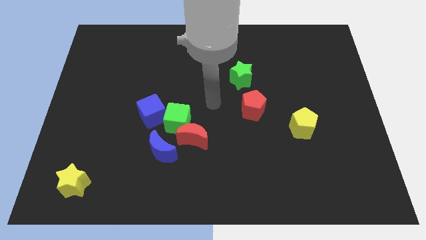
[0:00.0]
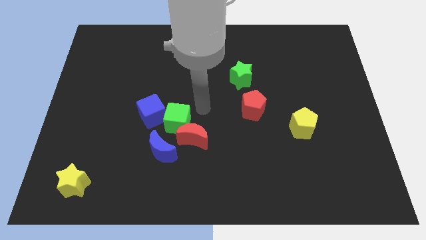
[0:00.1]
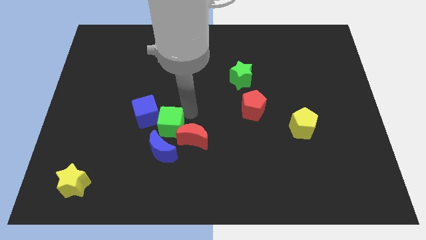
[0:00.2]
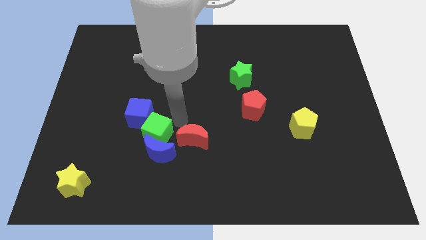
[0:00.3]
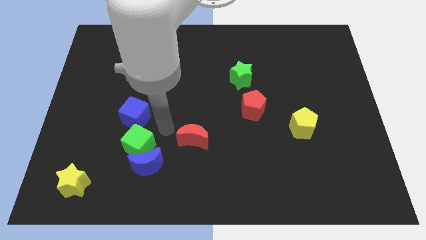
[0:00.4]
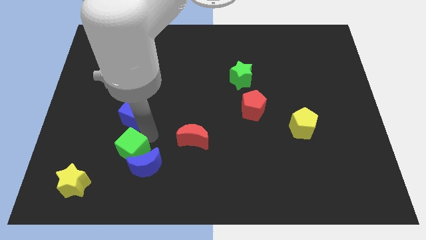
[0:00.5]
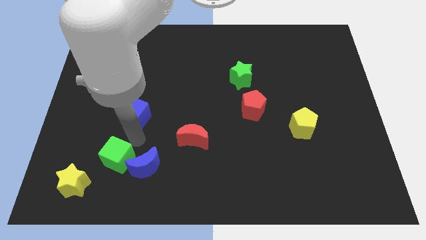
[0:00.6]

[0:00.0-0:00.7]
separate the blue cube from the green cube

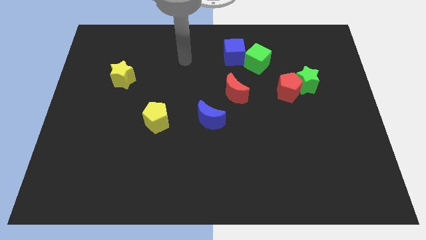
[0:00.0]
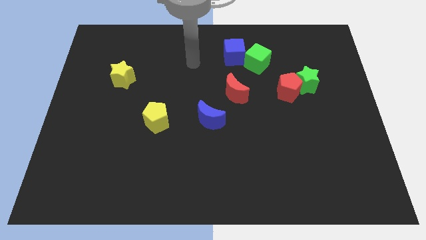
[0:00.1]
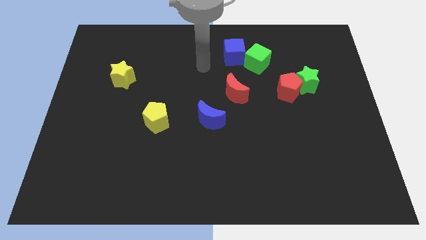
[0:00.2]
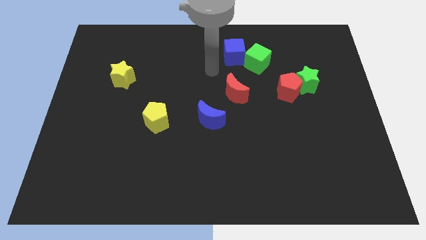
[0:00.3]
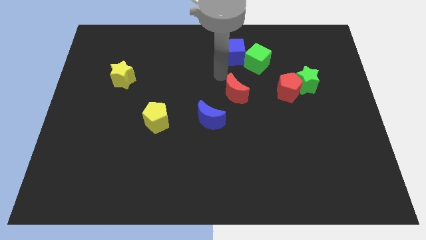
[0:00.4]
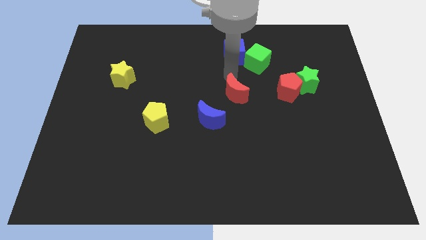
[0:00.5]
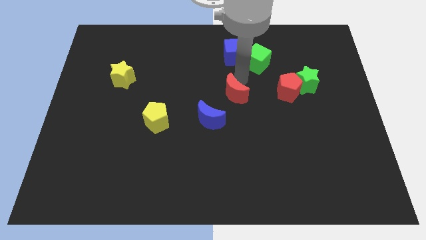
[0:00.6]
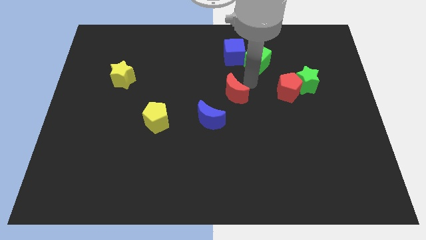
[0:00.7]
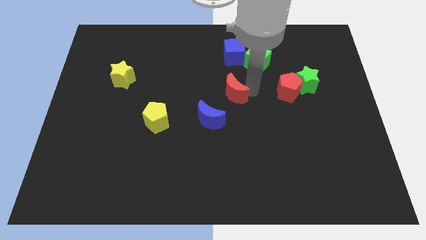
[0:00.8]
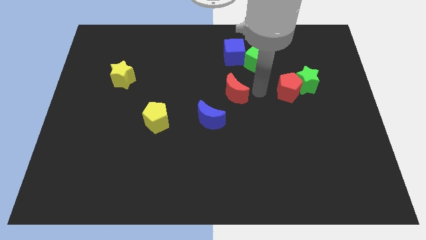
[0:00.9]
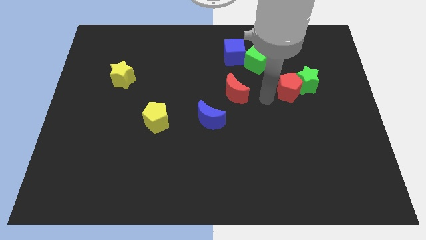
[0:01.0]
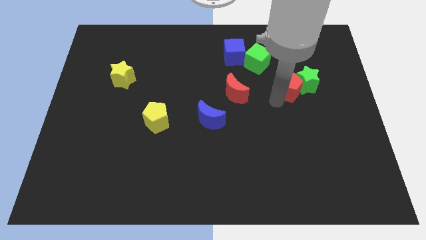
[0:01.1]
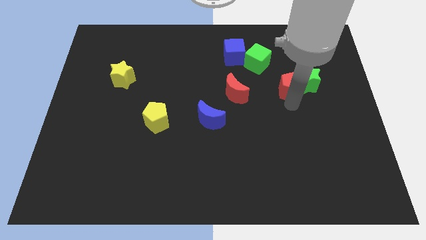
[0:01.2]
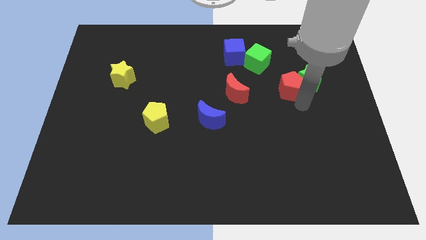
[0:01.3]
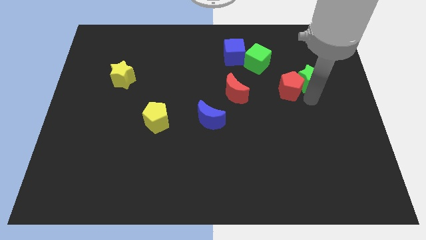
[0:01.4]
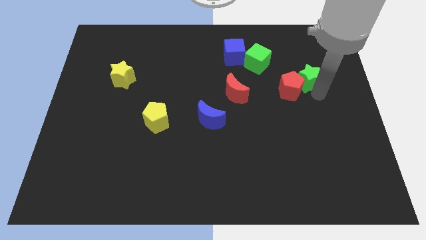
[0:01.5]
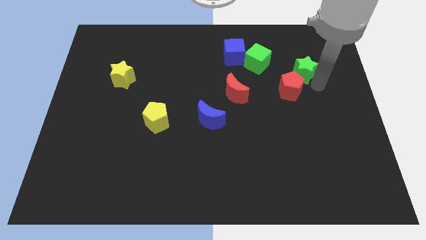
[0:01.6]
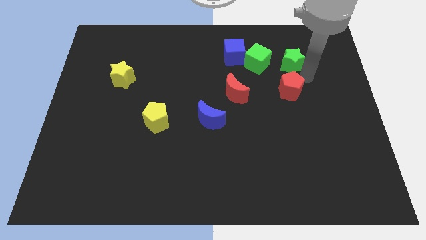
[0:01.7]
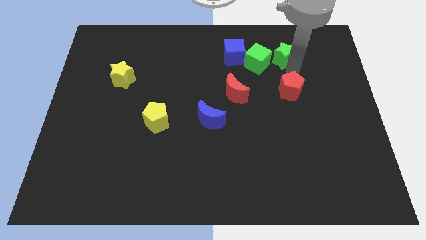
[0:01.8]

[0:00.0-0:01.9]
move the red pentagon away from the green star

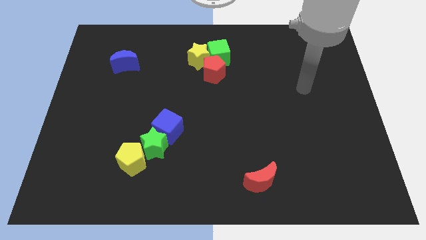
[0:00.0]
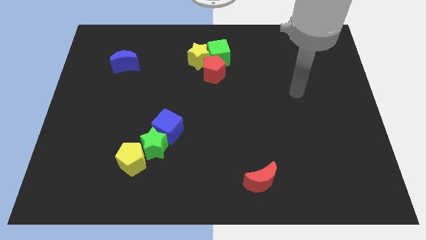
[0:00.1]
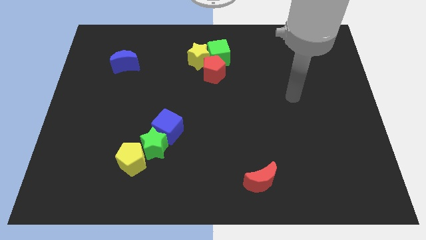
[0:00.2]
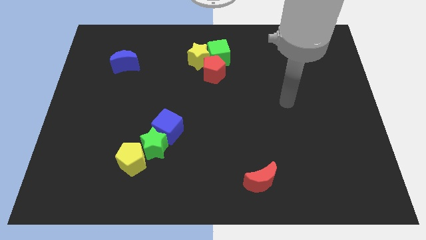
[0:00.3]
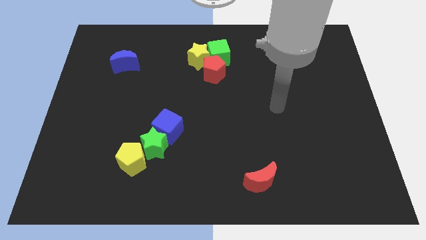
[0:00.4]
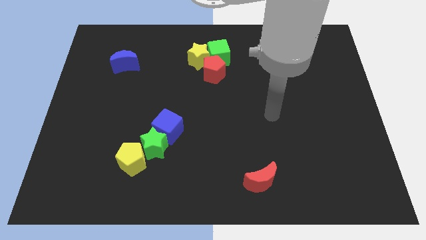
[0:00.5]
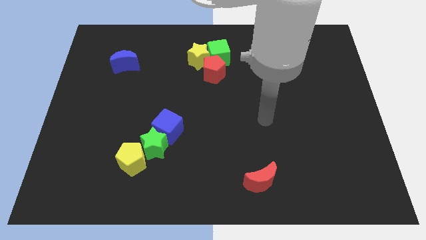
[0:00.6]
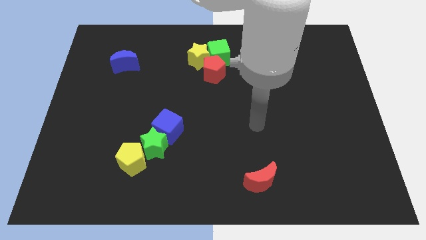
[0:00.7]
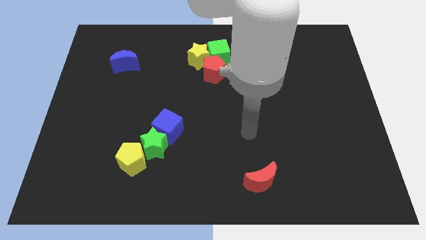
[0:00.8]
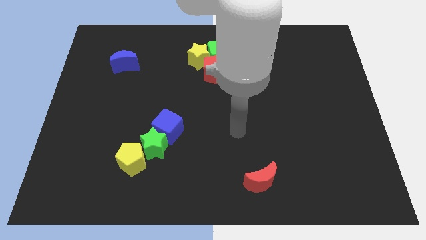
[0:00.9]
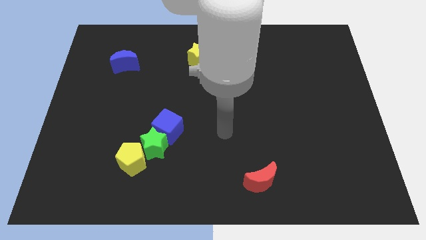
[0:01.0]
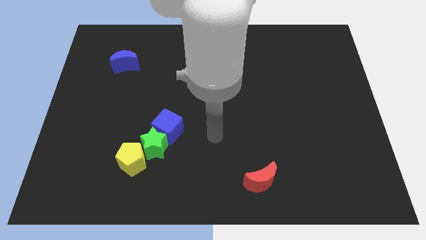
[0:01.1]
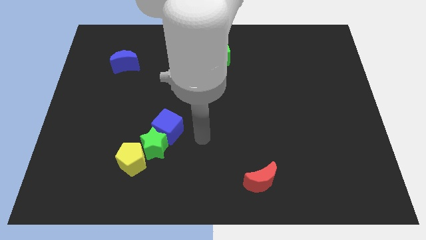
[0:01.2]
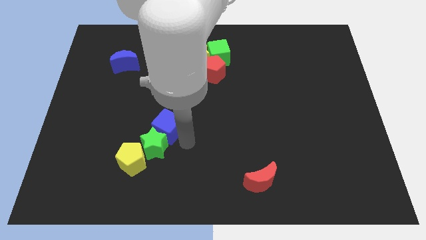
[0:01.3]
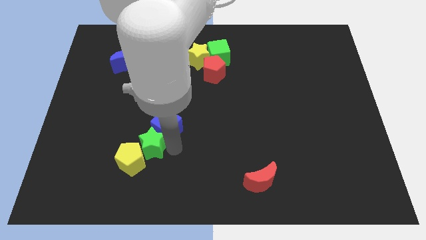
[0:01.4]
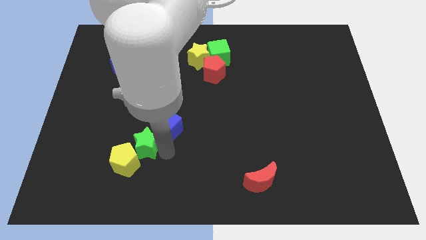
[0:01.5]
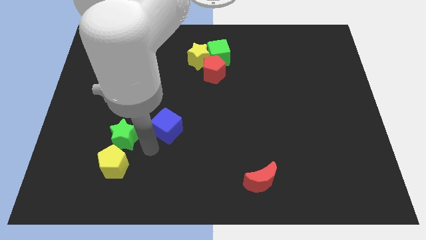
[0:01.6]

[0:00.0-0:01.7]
separate the blue cube from the green star

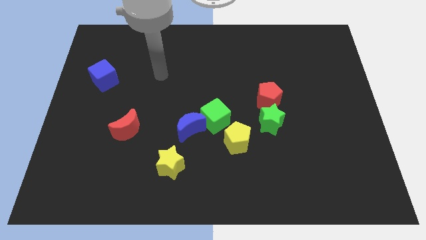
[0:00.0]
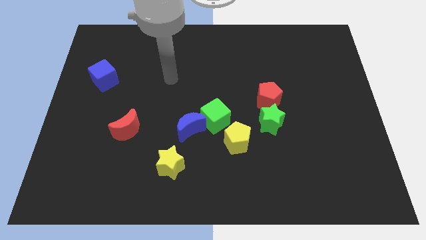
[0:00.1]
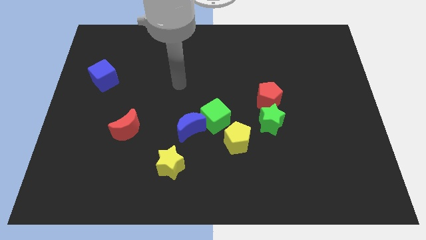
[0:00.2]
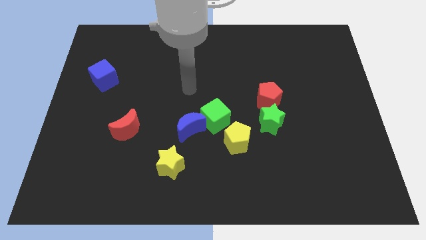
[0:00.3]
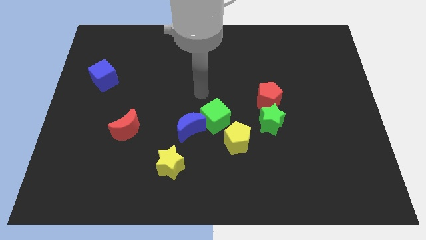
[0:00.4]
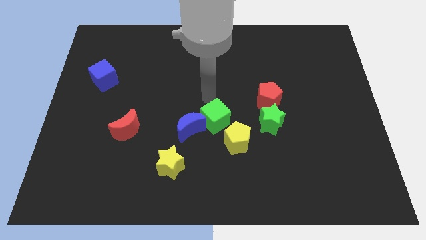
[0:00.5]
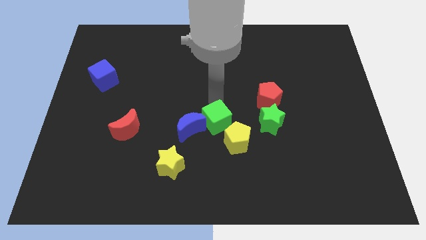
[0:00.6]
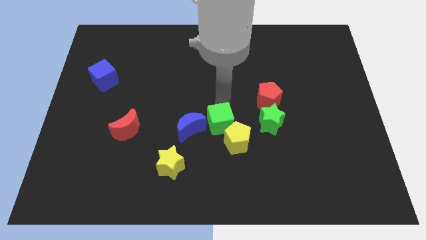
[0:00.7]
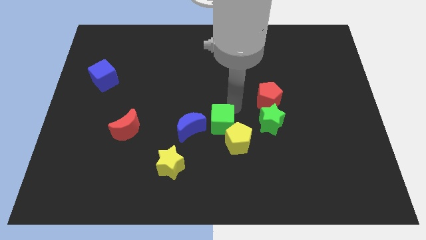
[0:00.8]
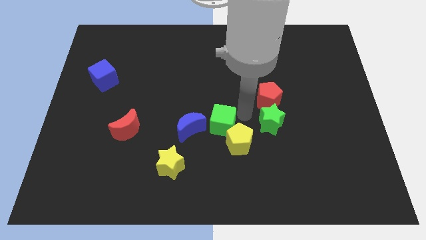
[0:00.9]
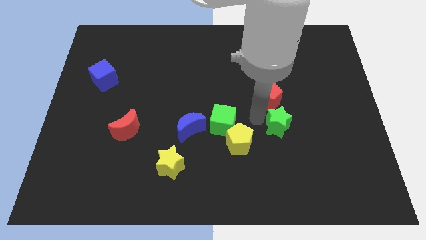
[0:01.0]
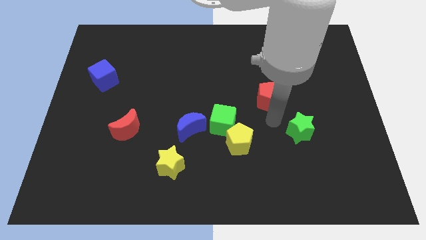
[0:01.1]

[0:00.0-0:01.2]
pull the red pentagon apart from the green star

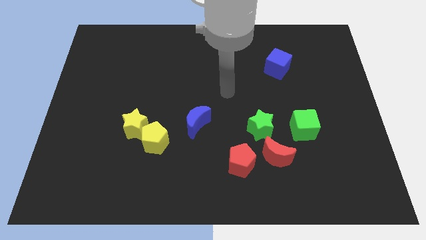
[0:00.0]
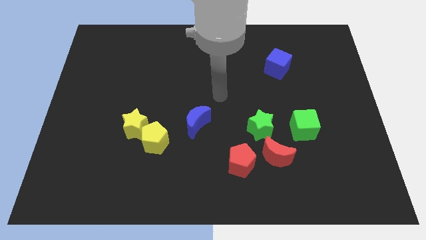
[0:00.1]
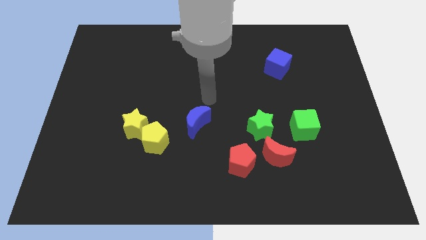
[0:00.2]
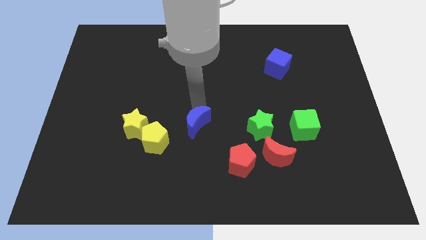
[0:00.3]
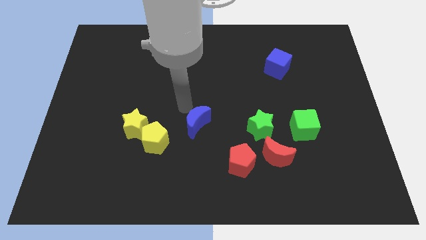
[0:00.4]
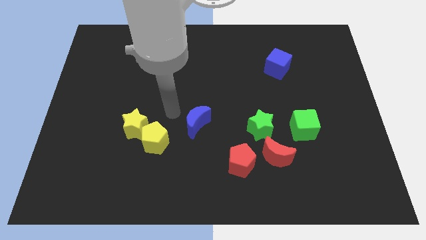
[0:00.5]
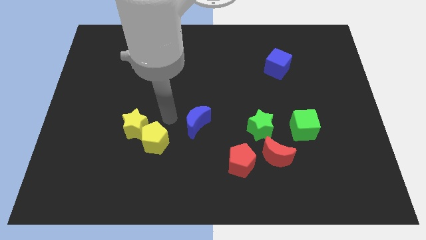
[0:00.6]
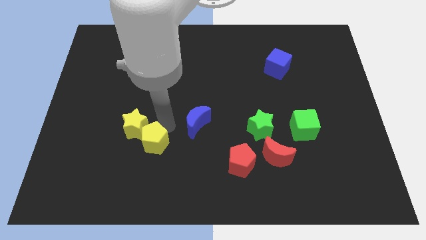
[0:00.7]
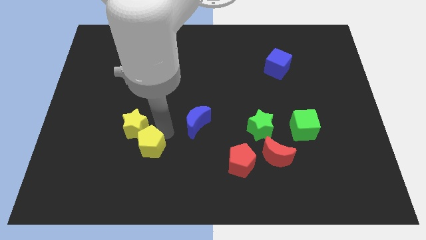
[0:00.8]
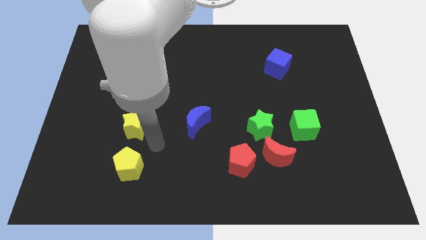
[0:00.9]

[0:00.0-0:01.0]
move the yellow star away from the yellow pentagon

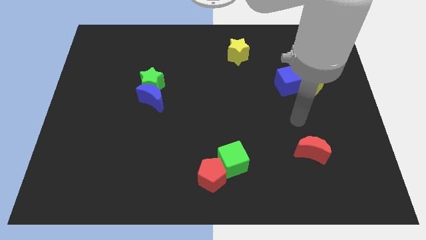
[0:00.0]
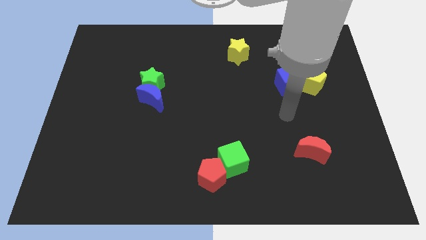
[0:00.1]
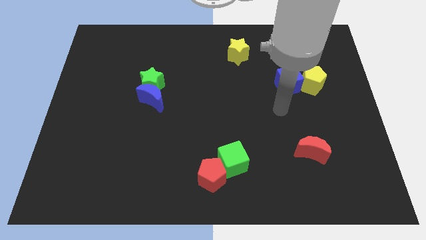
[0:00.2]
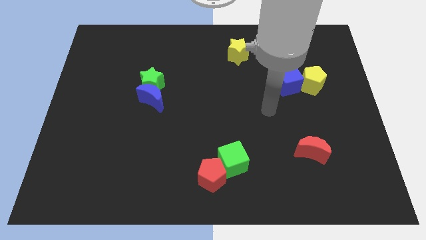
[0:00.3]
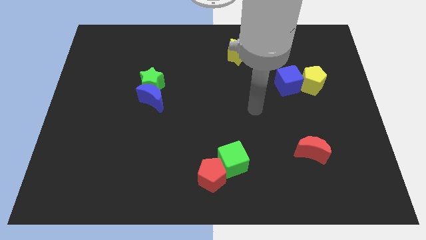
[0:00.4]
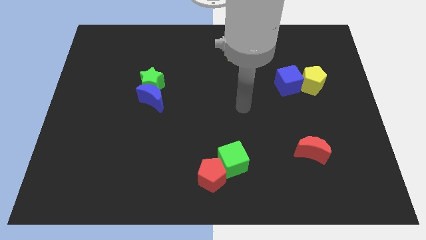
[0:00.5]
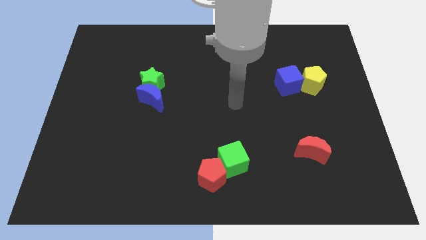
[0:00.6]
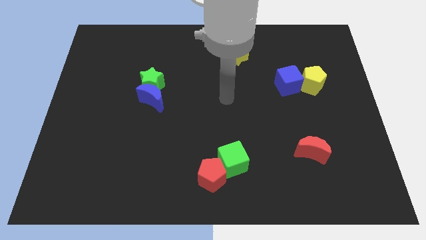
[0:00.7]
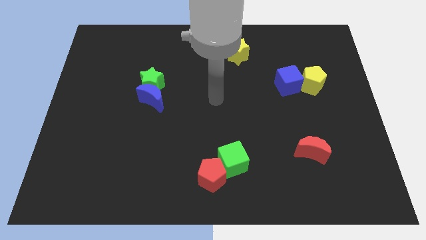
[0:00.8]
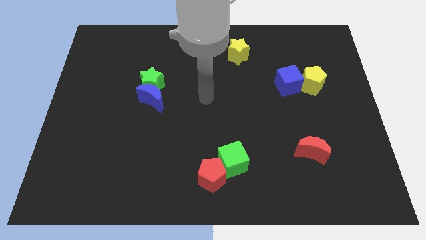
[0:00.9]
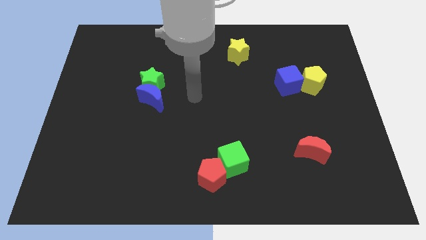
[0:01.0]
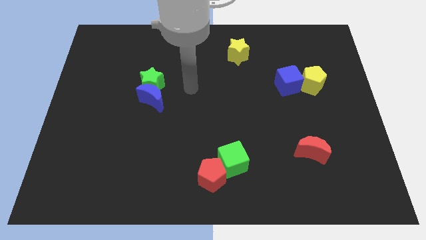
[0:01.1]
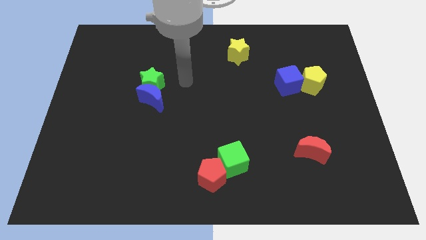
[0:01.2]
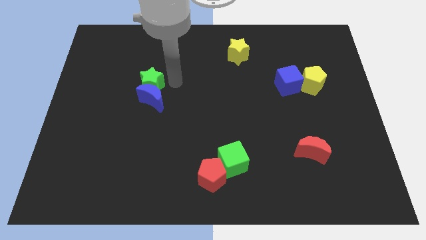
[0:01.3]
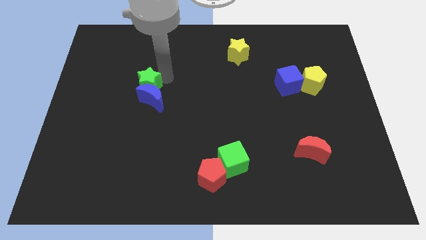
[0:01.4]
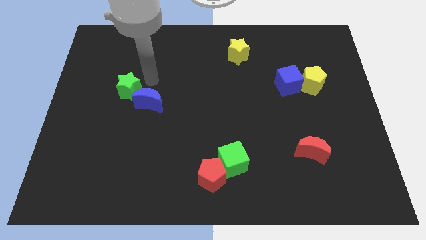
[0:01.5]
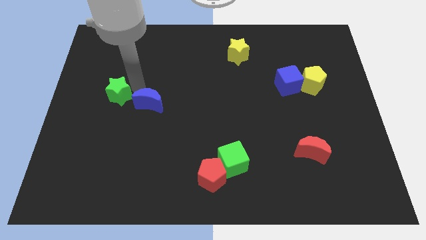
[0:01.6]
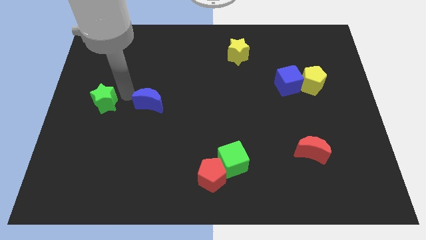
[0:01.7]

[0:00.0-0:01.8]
pull the blue moon apart from the green star

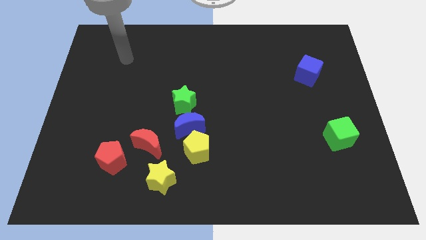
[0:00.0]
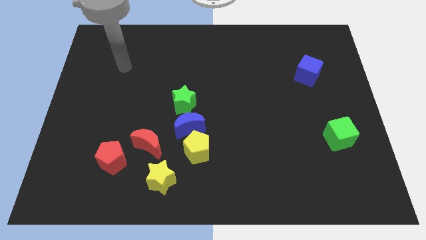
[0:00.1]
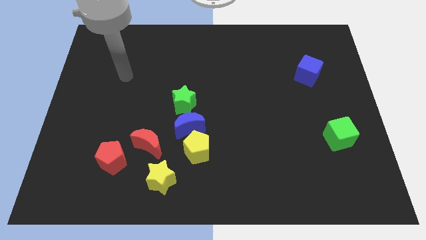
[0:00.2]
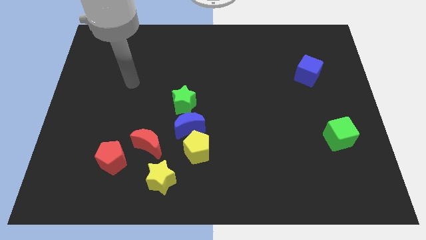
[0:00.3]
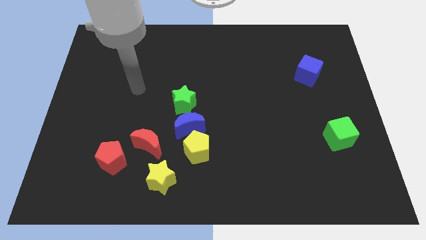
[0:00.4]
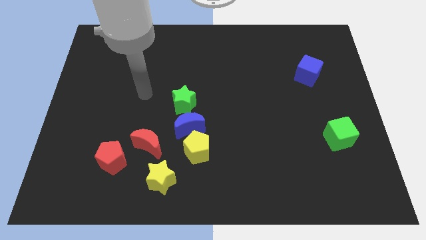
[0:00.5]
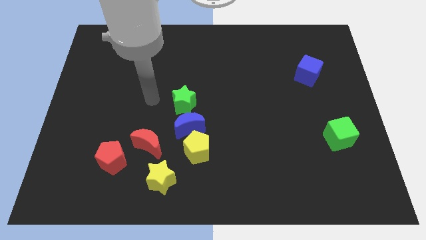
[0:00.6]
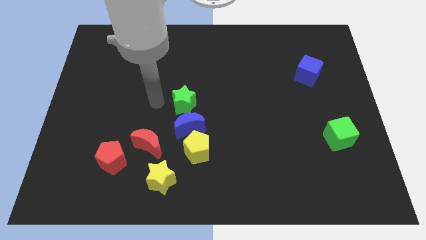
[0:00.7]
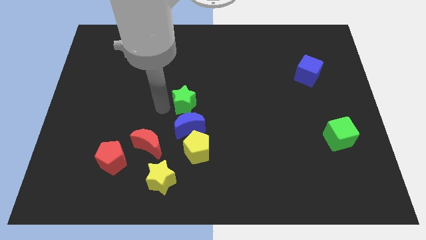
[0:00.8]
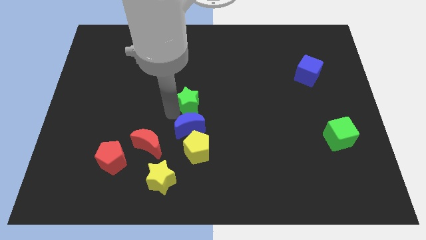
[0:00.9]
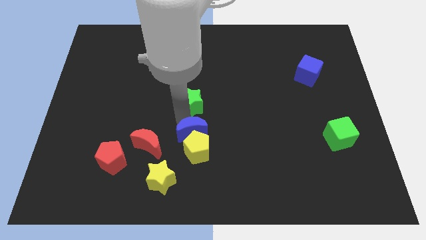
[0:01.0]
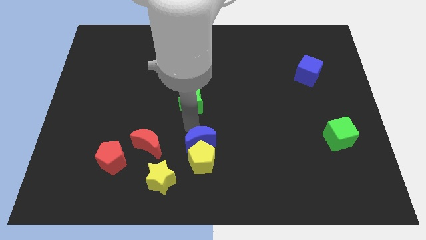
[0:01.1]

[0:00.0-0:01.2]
separate the green star from the blue moon
